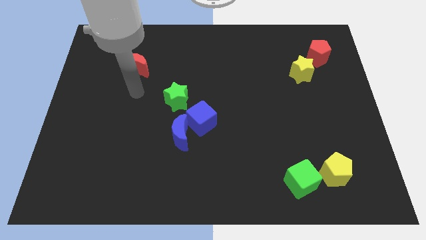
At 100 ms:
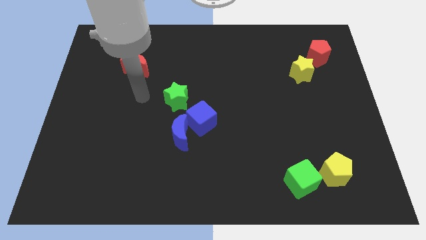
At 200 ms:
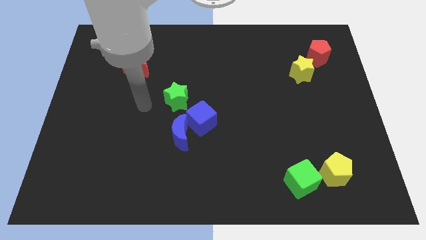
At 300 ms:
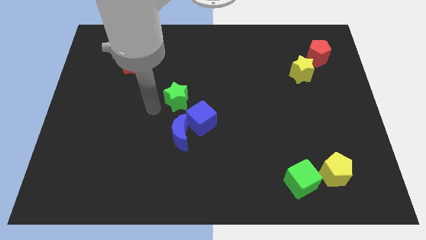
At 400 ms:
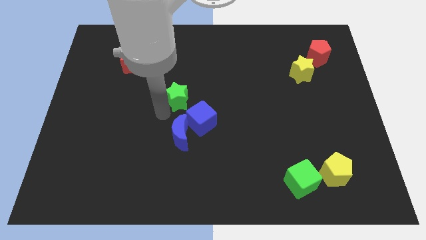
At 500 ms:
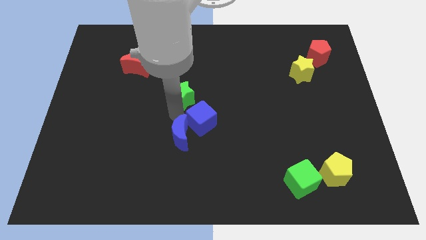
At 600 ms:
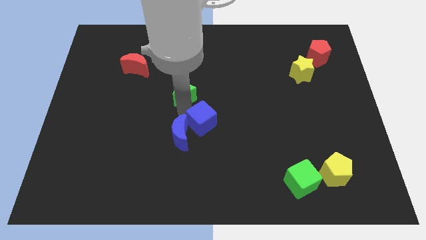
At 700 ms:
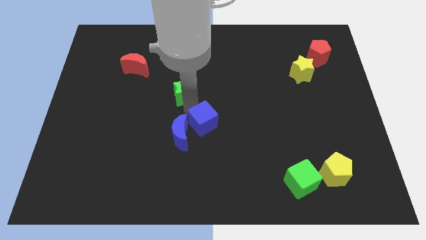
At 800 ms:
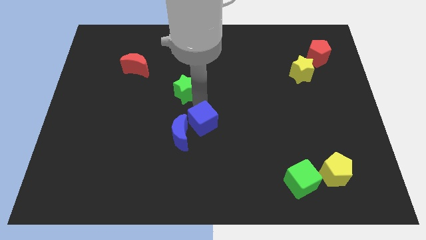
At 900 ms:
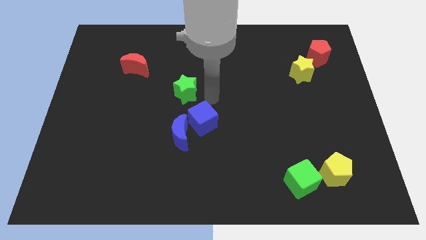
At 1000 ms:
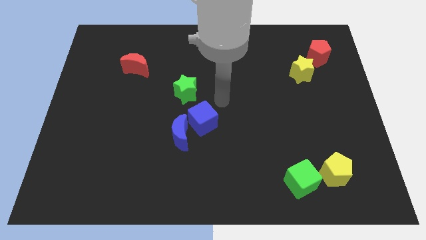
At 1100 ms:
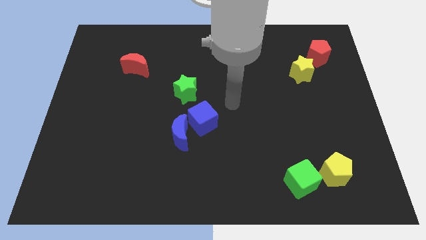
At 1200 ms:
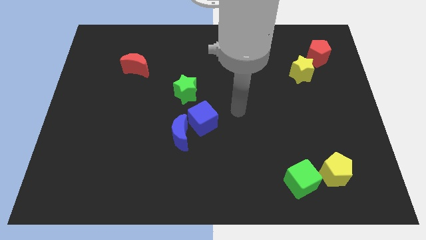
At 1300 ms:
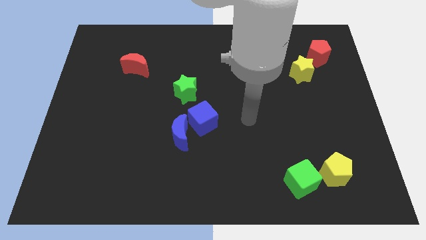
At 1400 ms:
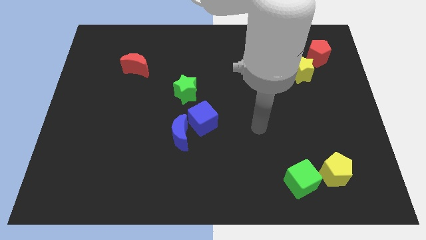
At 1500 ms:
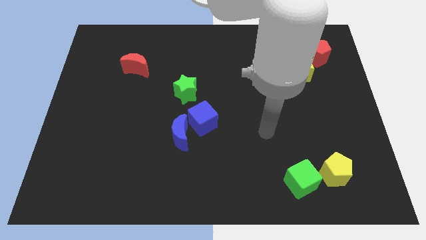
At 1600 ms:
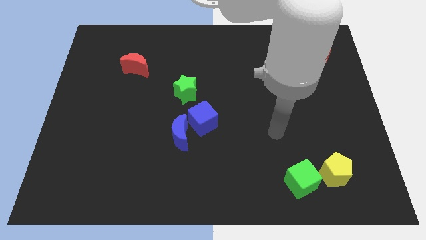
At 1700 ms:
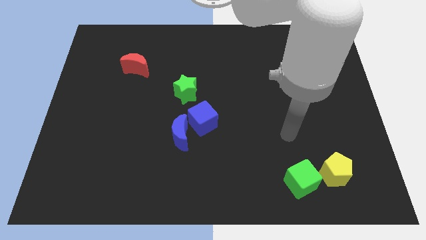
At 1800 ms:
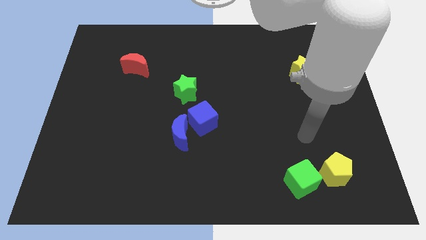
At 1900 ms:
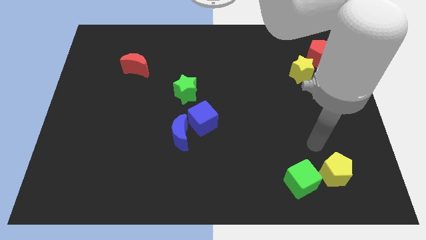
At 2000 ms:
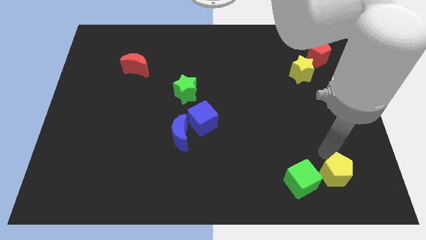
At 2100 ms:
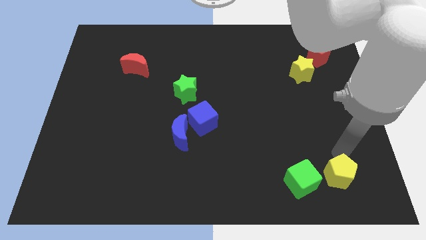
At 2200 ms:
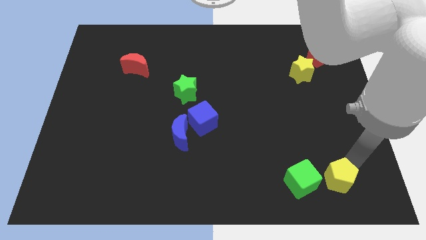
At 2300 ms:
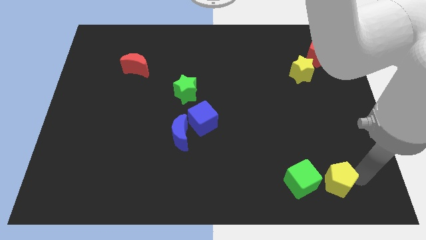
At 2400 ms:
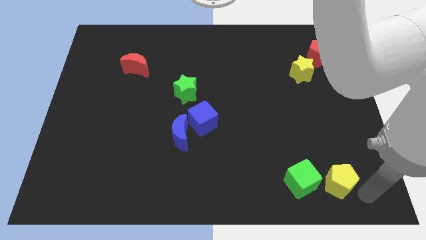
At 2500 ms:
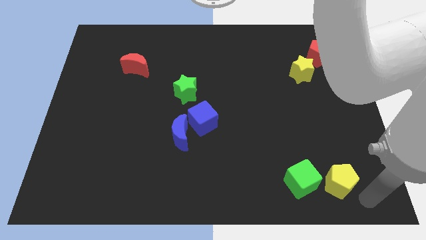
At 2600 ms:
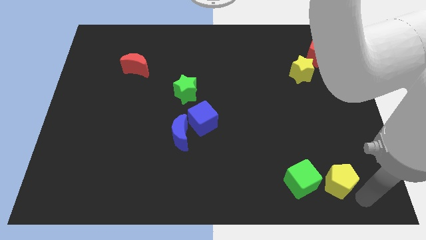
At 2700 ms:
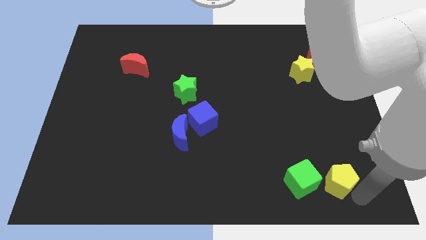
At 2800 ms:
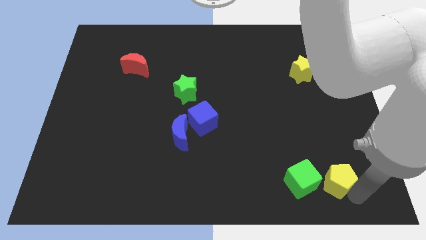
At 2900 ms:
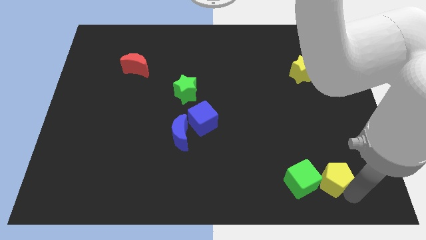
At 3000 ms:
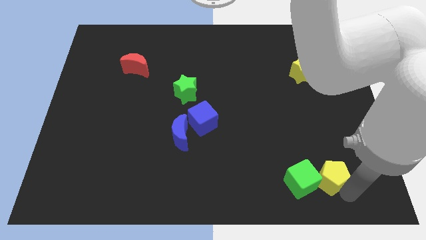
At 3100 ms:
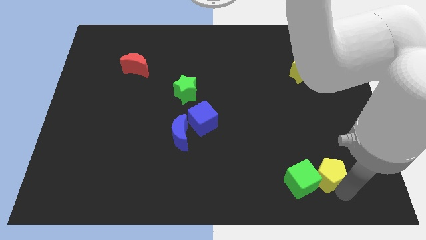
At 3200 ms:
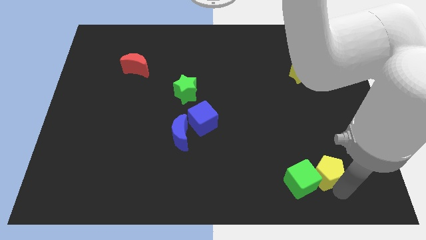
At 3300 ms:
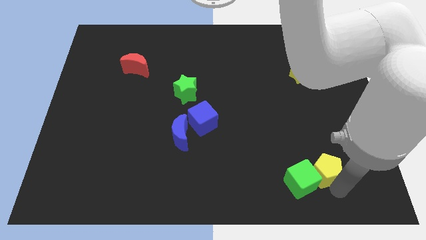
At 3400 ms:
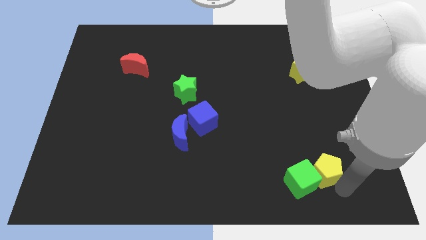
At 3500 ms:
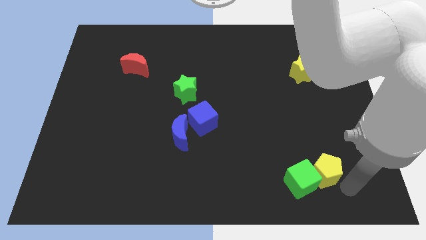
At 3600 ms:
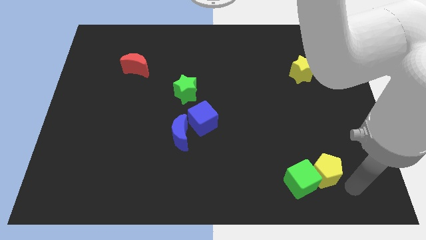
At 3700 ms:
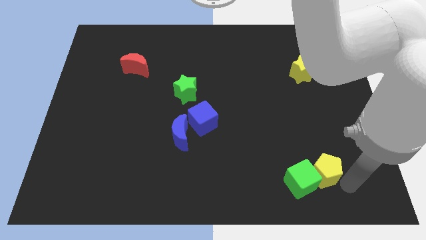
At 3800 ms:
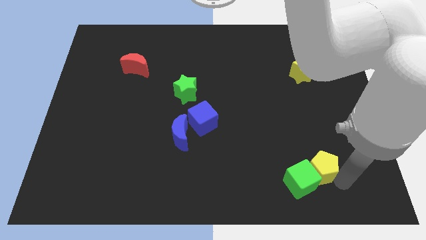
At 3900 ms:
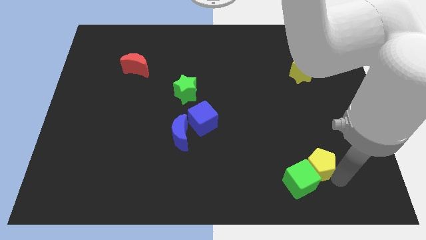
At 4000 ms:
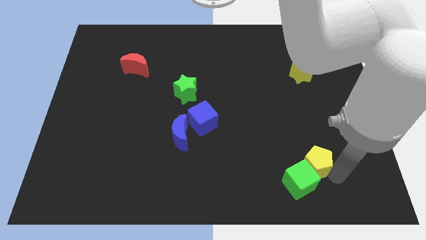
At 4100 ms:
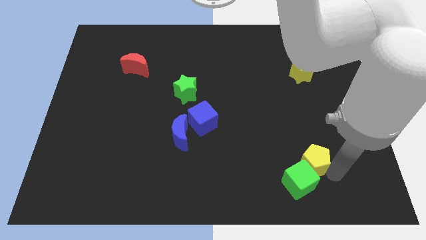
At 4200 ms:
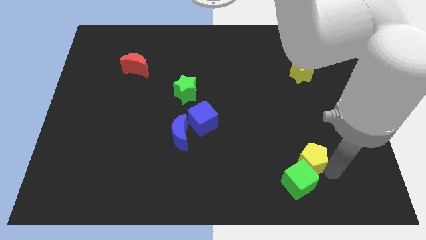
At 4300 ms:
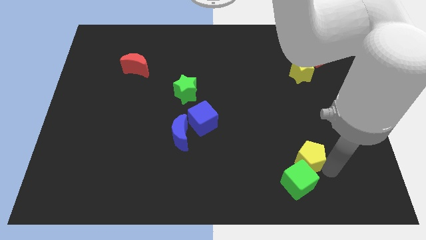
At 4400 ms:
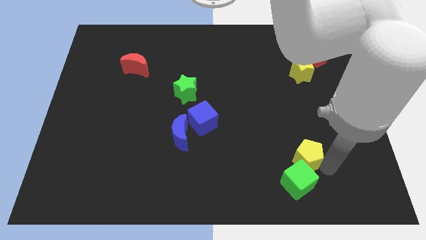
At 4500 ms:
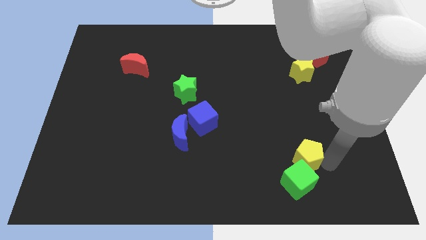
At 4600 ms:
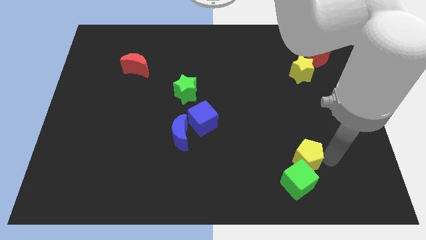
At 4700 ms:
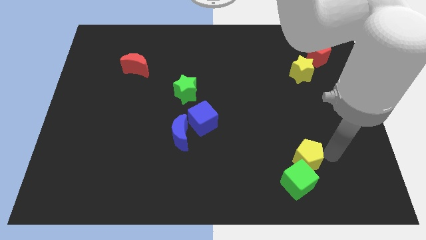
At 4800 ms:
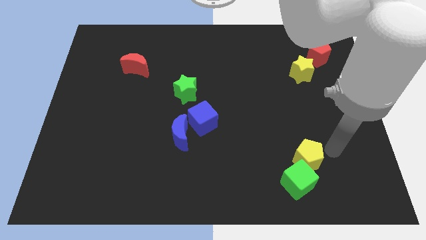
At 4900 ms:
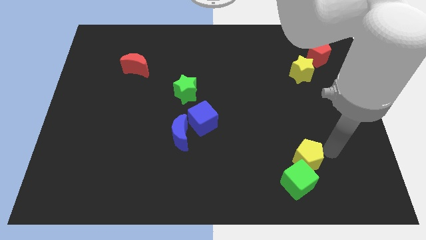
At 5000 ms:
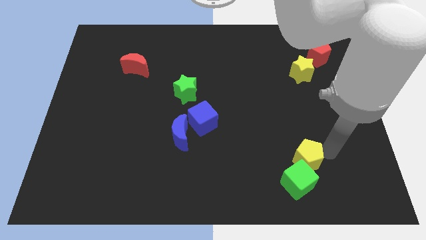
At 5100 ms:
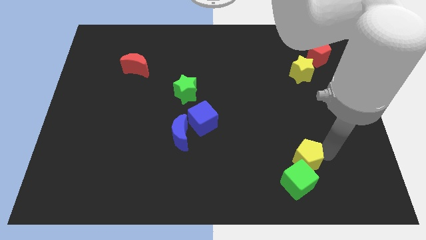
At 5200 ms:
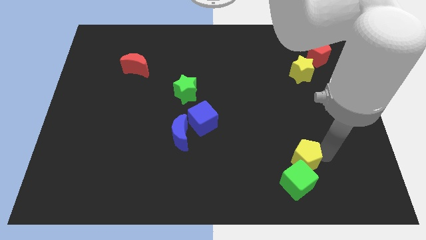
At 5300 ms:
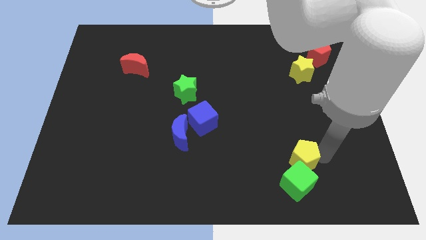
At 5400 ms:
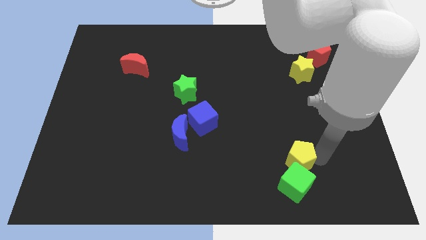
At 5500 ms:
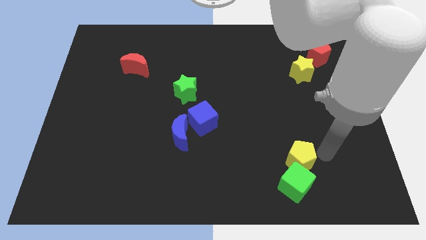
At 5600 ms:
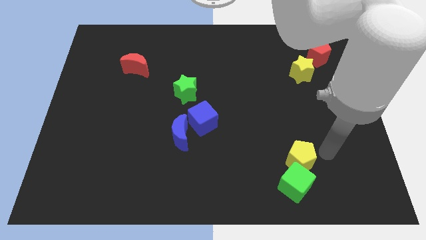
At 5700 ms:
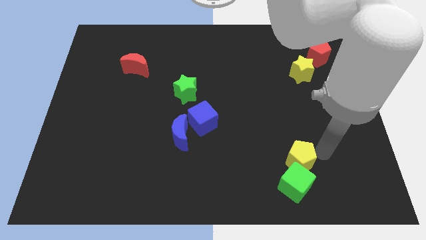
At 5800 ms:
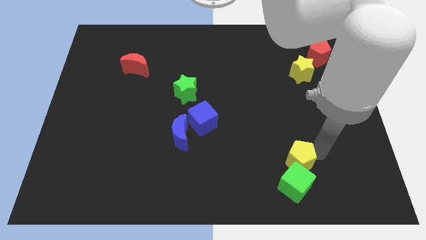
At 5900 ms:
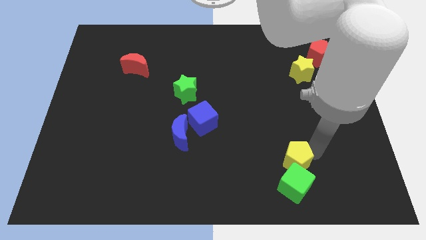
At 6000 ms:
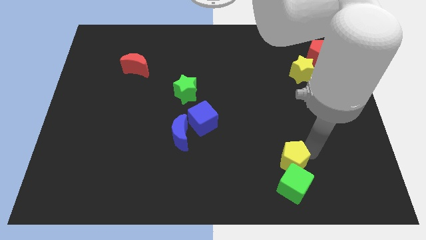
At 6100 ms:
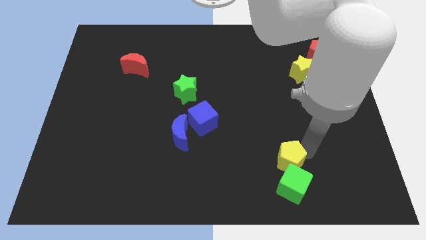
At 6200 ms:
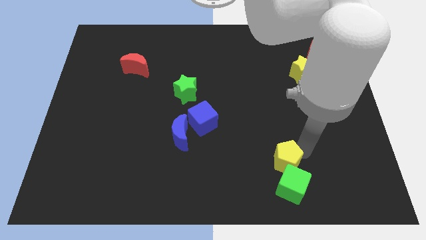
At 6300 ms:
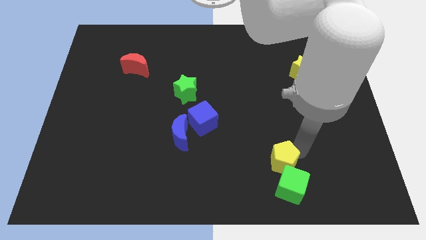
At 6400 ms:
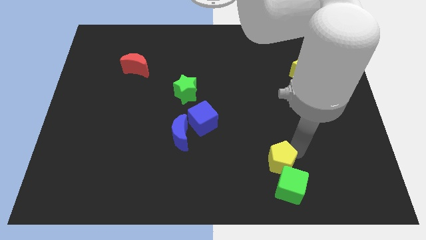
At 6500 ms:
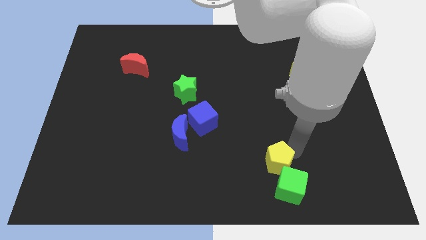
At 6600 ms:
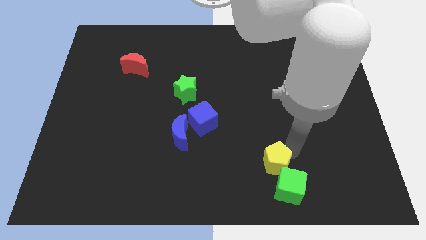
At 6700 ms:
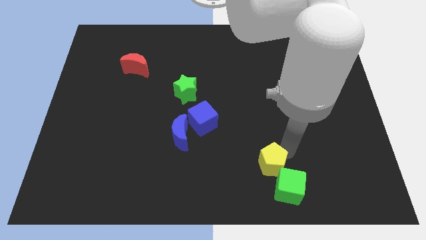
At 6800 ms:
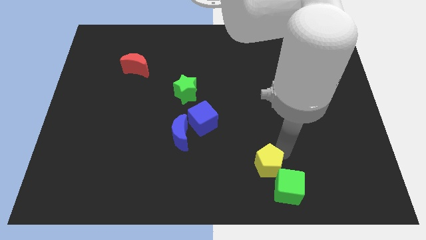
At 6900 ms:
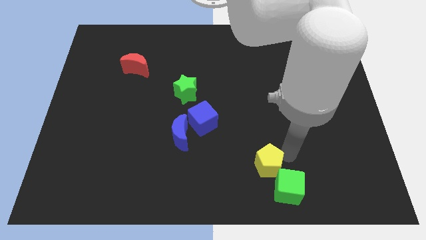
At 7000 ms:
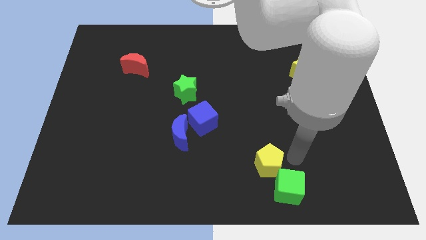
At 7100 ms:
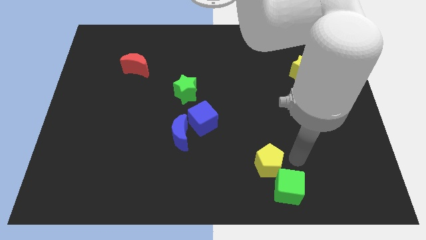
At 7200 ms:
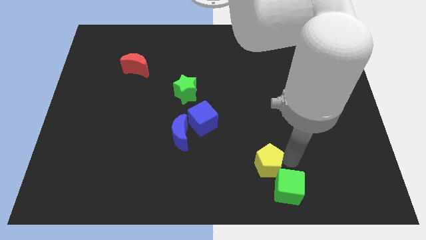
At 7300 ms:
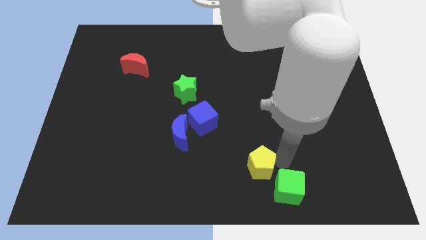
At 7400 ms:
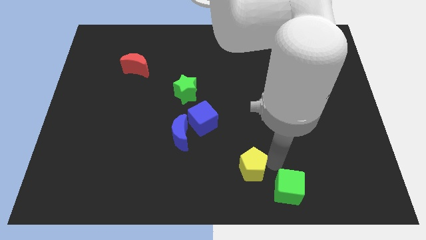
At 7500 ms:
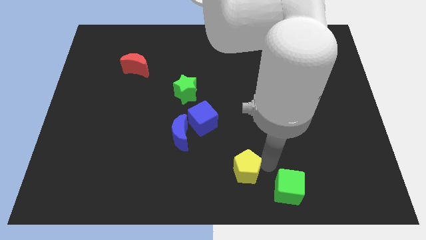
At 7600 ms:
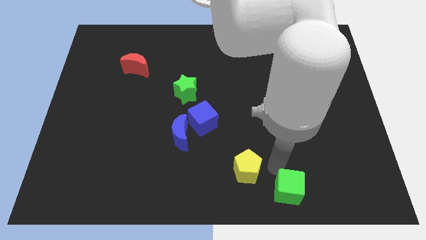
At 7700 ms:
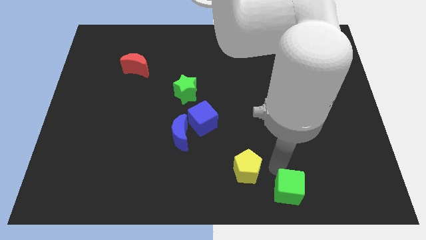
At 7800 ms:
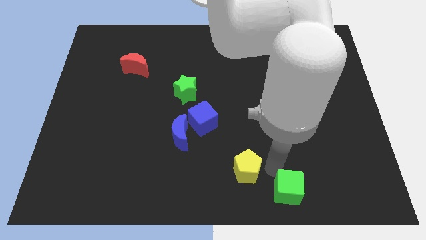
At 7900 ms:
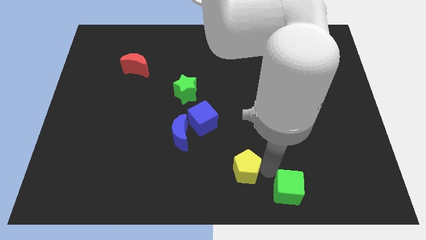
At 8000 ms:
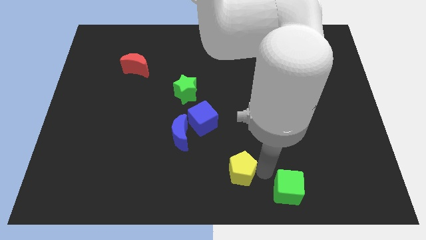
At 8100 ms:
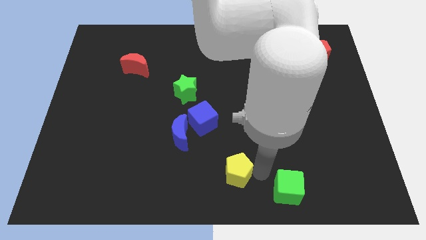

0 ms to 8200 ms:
push the yellow pentagon to the left
